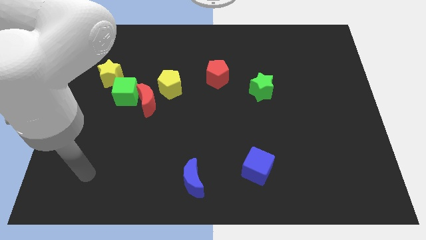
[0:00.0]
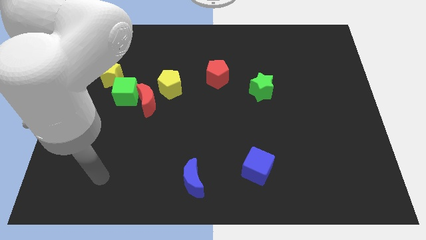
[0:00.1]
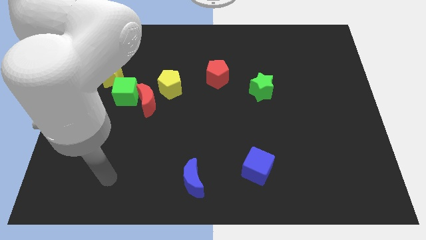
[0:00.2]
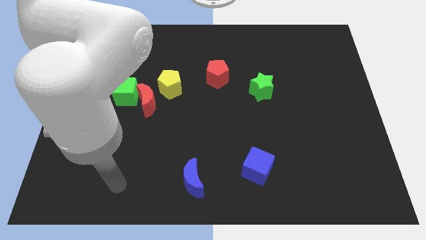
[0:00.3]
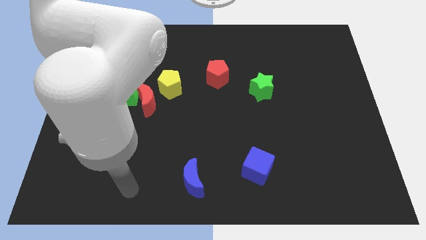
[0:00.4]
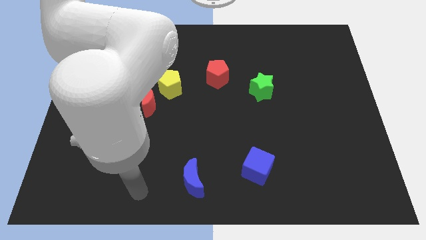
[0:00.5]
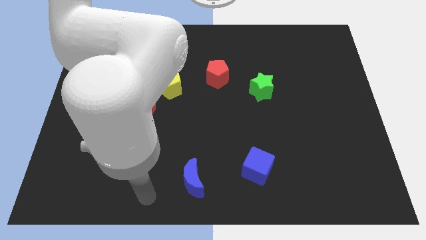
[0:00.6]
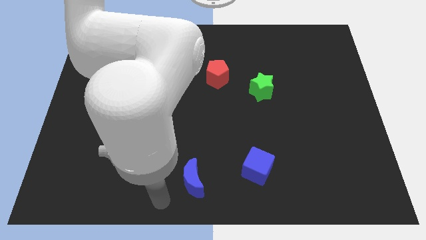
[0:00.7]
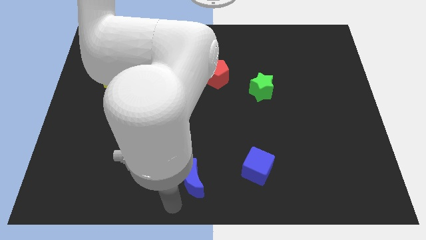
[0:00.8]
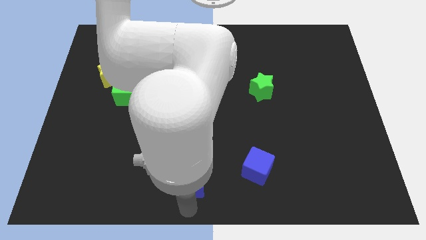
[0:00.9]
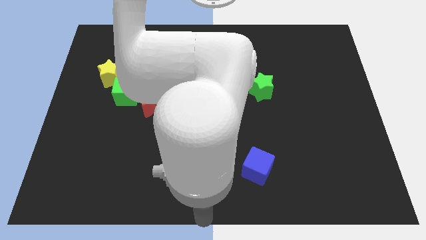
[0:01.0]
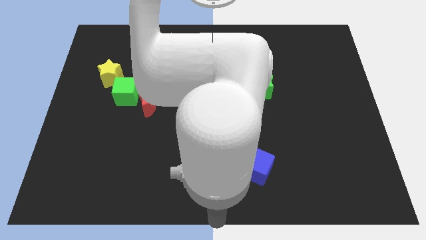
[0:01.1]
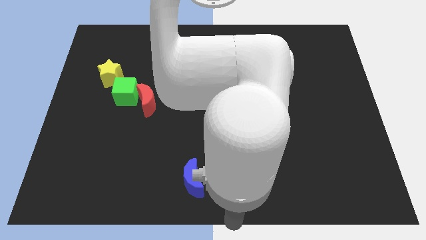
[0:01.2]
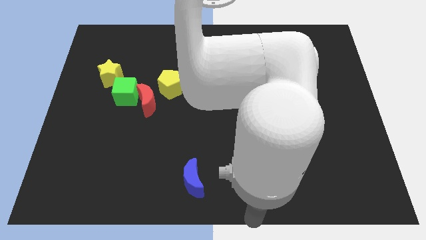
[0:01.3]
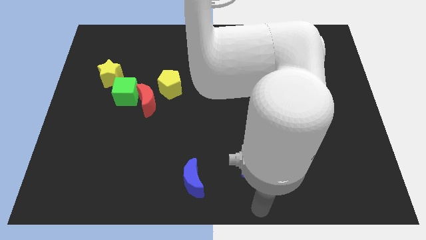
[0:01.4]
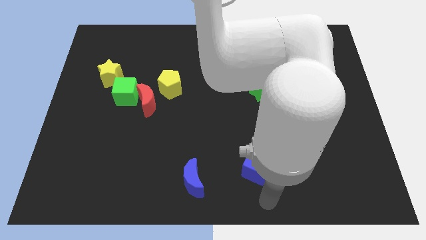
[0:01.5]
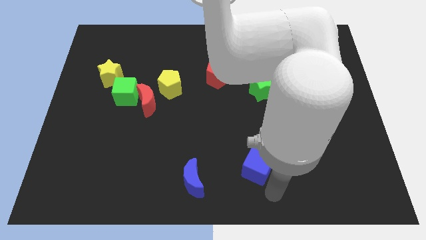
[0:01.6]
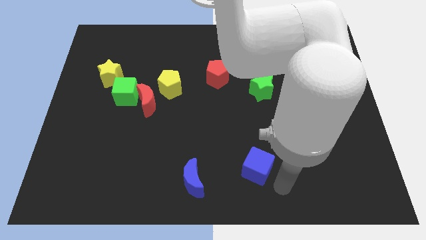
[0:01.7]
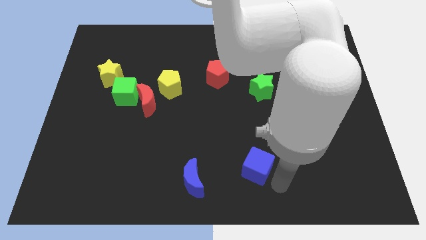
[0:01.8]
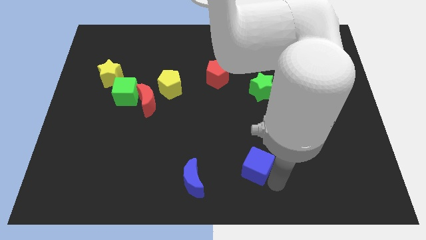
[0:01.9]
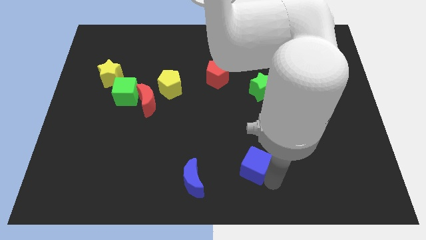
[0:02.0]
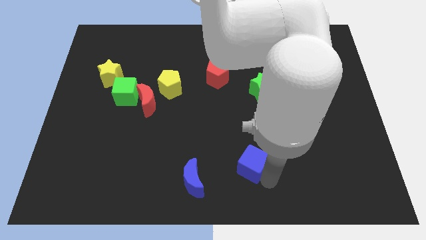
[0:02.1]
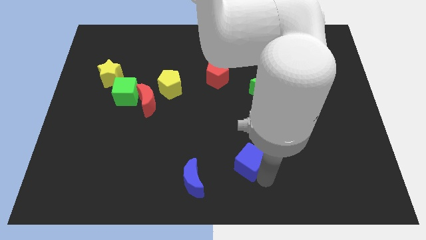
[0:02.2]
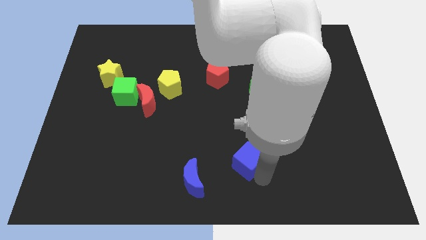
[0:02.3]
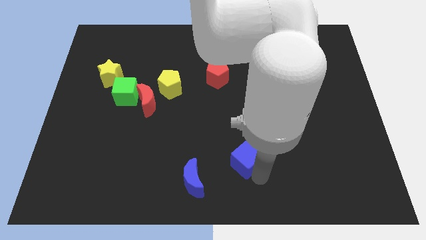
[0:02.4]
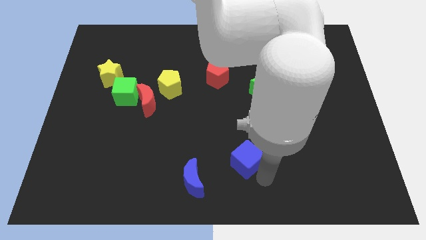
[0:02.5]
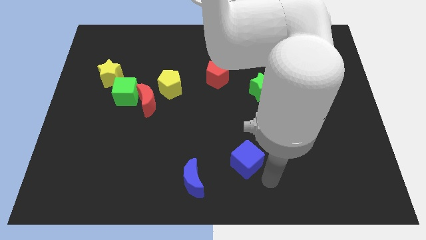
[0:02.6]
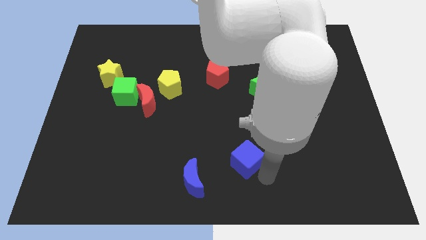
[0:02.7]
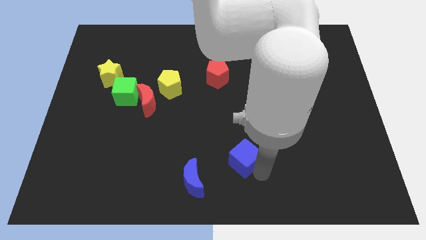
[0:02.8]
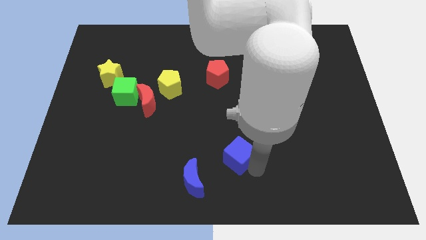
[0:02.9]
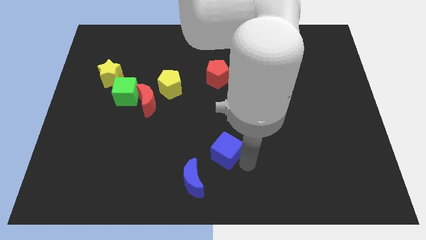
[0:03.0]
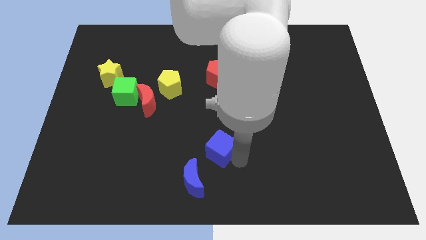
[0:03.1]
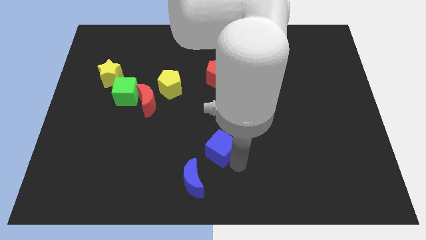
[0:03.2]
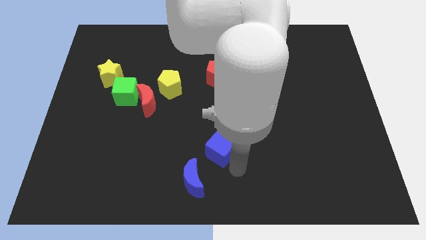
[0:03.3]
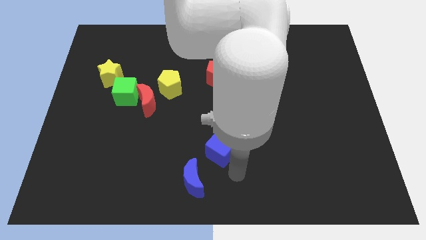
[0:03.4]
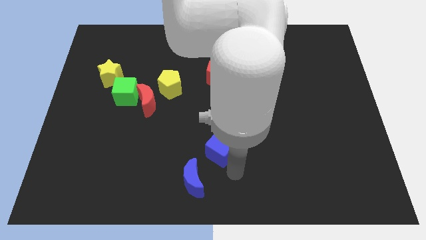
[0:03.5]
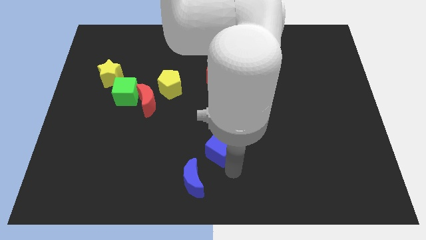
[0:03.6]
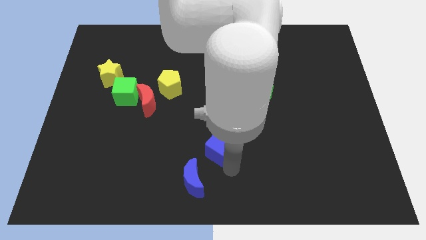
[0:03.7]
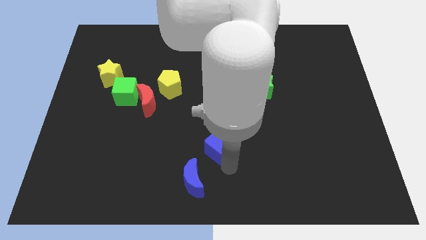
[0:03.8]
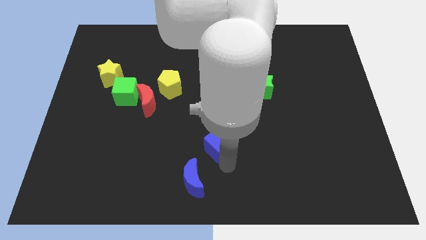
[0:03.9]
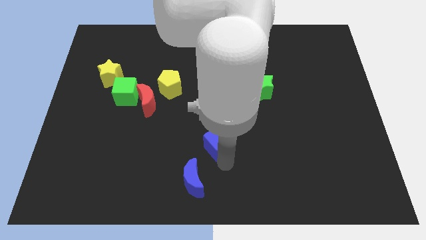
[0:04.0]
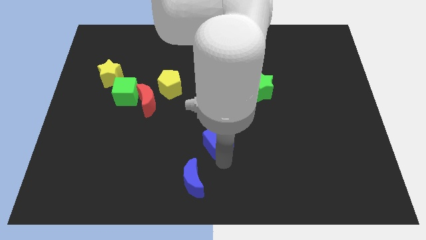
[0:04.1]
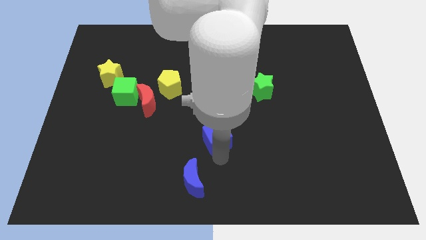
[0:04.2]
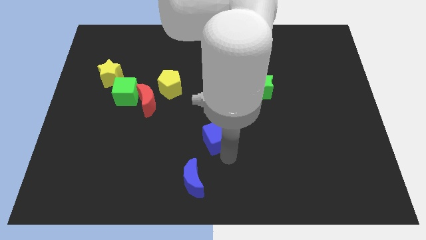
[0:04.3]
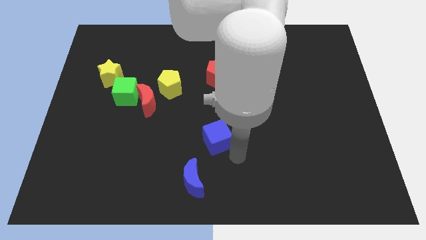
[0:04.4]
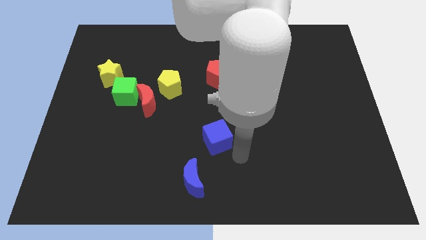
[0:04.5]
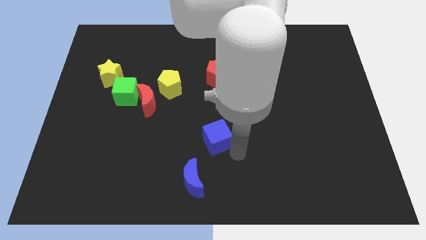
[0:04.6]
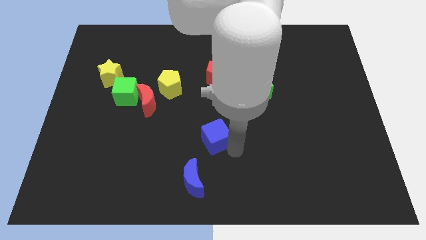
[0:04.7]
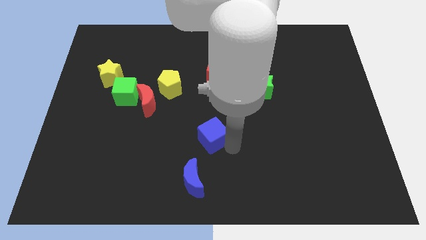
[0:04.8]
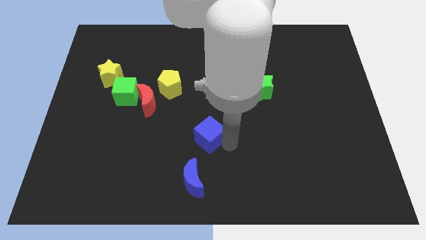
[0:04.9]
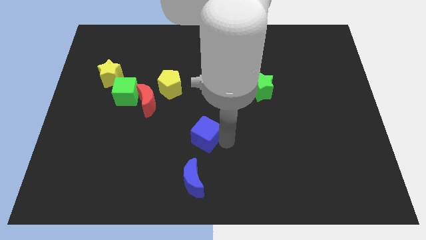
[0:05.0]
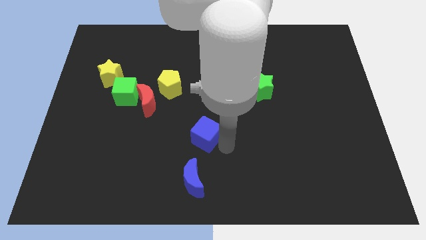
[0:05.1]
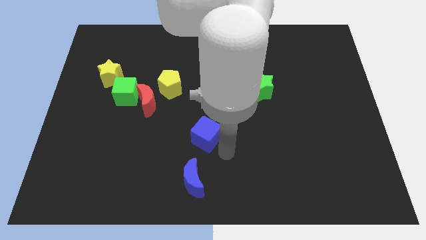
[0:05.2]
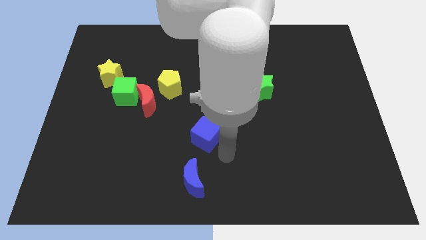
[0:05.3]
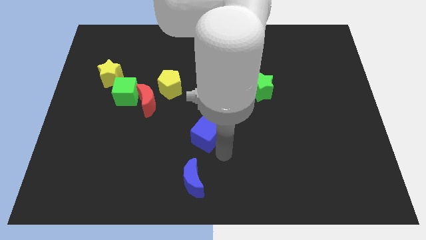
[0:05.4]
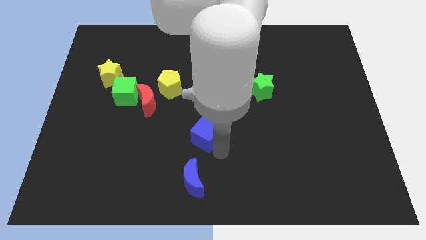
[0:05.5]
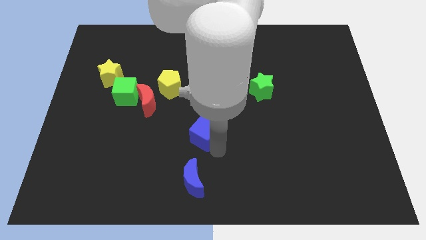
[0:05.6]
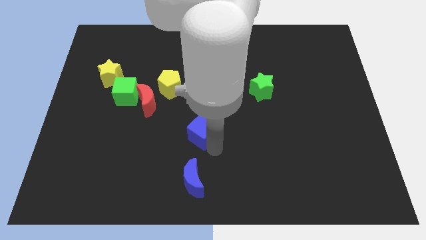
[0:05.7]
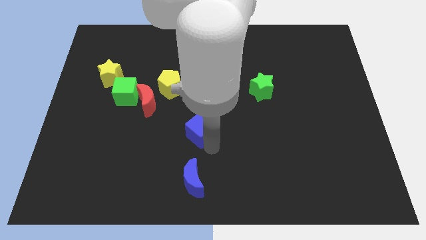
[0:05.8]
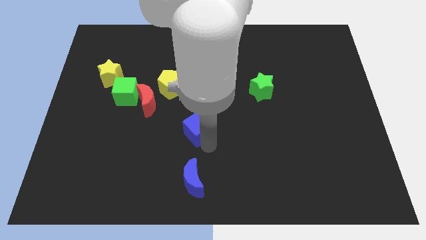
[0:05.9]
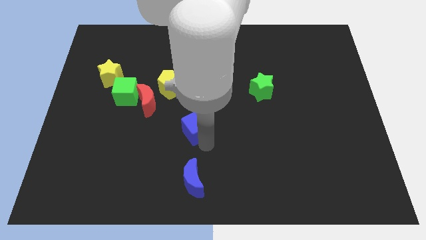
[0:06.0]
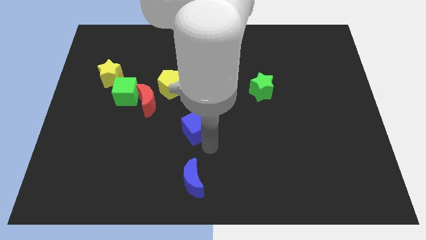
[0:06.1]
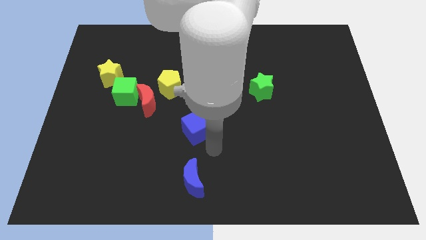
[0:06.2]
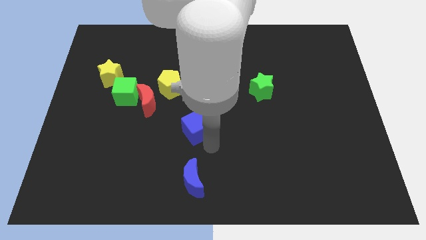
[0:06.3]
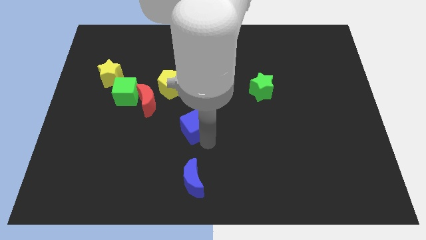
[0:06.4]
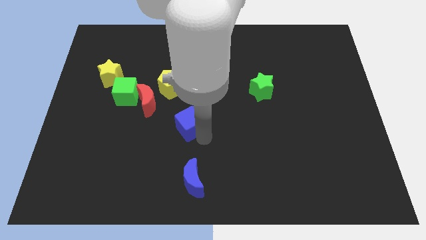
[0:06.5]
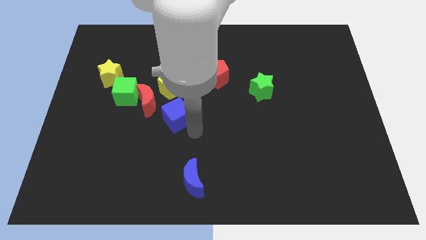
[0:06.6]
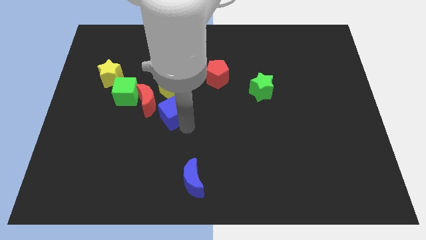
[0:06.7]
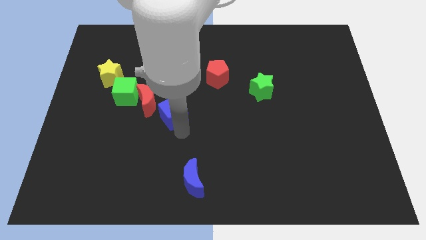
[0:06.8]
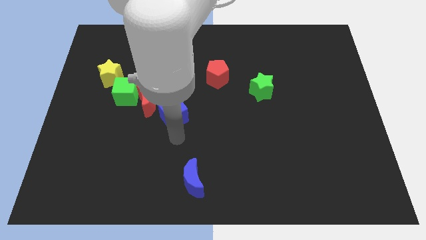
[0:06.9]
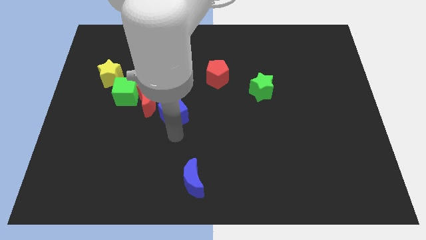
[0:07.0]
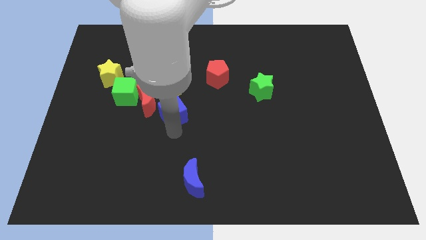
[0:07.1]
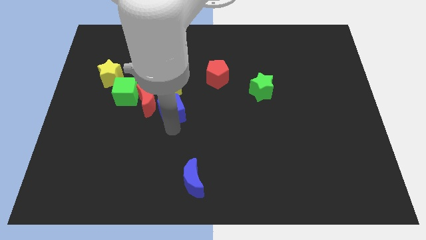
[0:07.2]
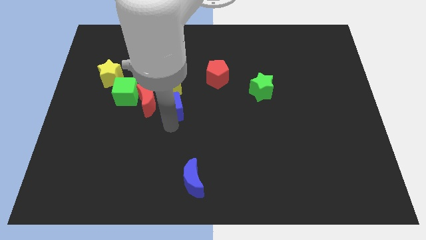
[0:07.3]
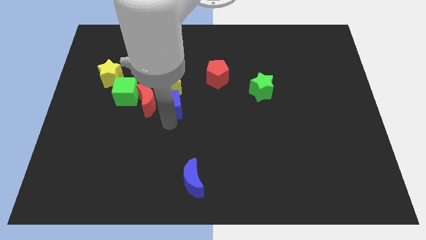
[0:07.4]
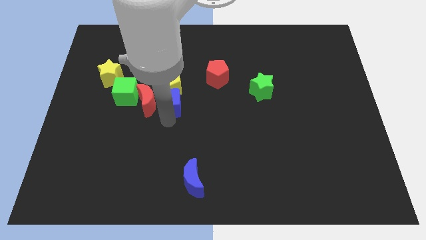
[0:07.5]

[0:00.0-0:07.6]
move the blue cube to the yellow pentagon
